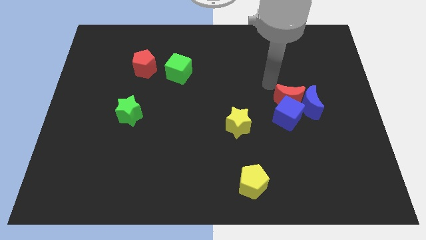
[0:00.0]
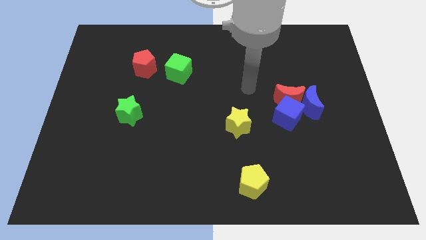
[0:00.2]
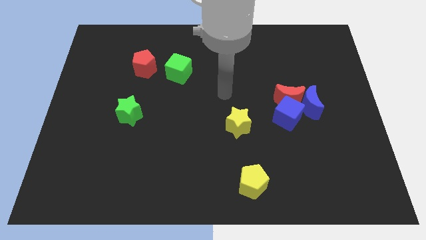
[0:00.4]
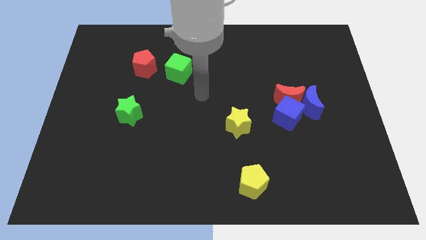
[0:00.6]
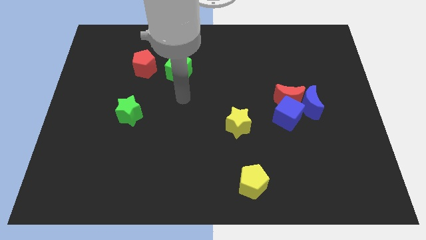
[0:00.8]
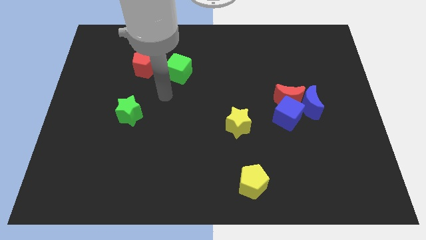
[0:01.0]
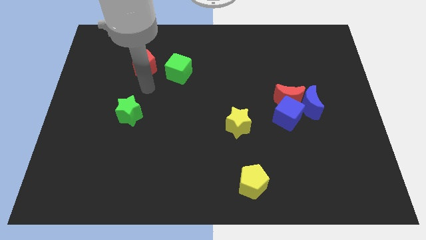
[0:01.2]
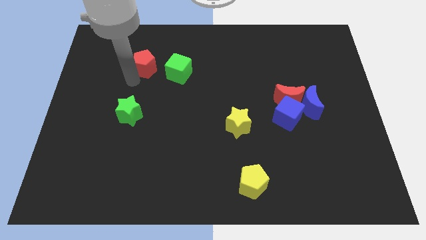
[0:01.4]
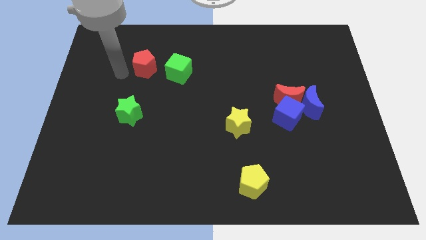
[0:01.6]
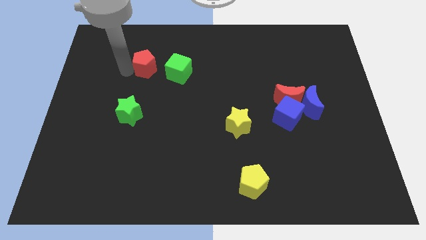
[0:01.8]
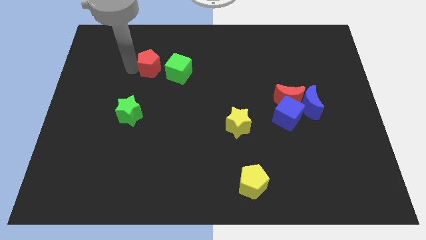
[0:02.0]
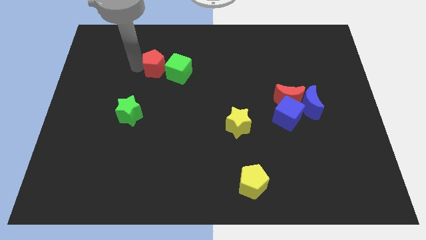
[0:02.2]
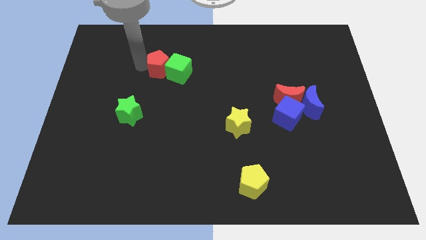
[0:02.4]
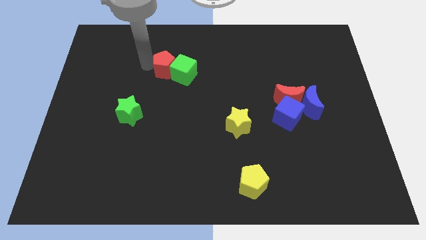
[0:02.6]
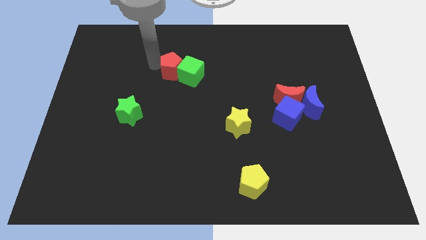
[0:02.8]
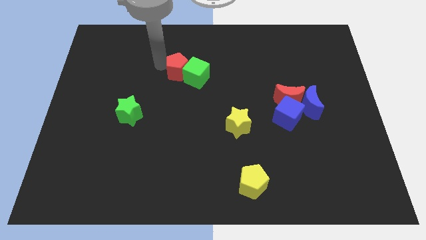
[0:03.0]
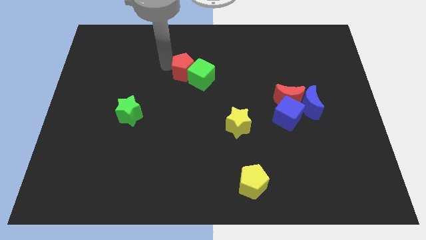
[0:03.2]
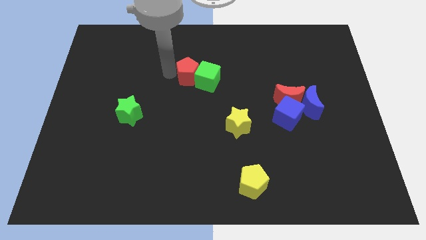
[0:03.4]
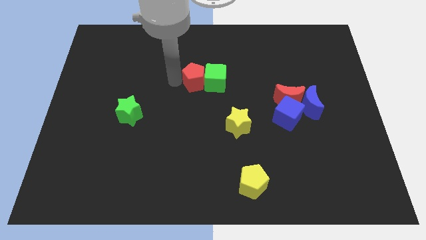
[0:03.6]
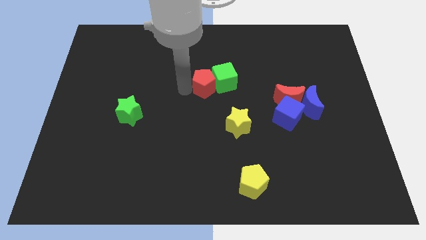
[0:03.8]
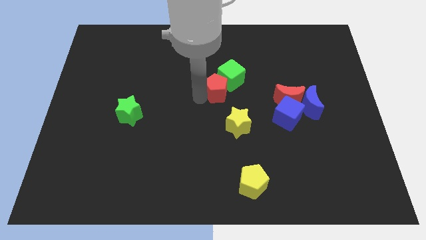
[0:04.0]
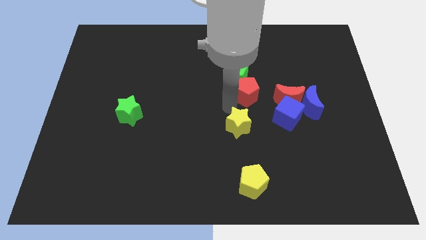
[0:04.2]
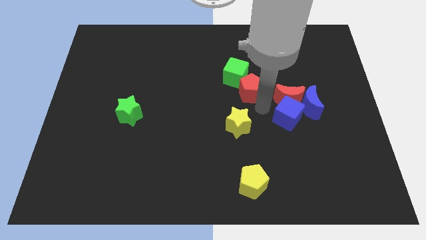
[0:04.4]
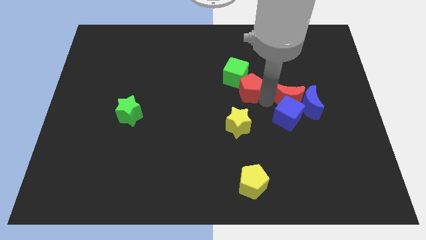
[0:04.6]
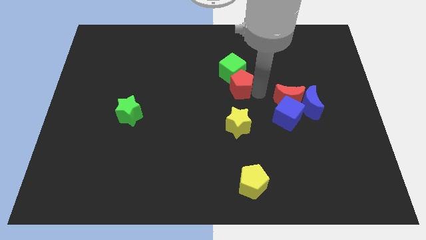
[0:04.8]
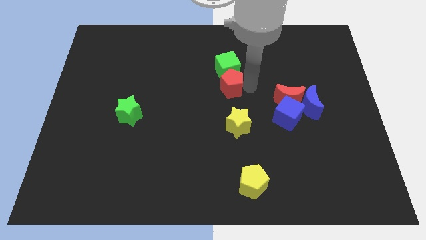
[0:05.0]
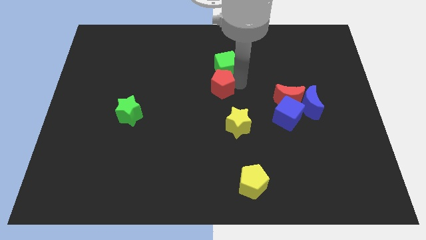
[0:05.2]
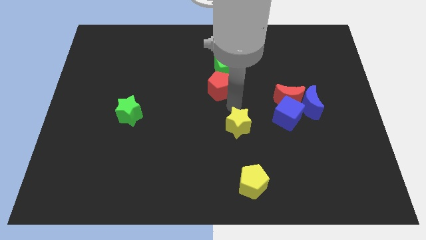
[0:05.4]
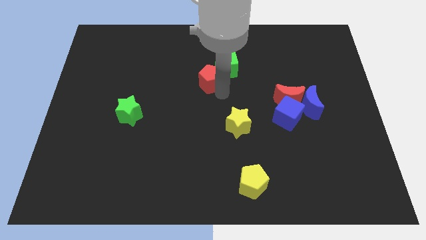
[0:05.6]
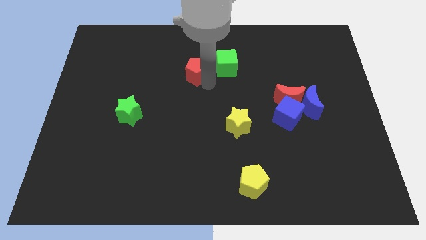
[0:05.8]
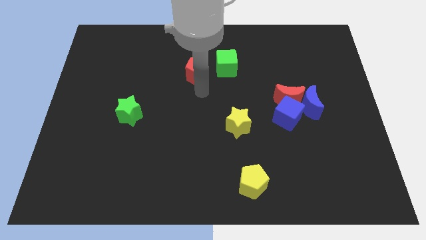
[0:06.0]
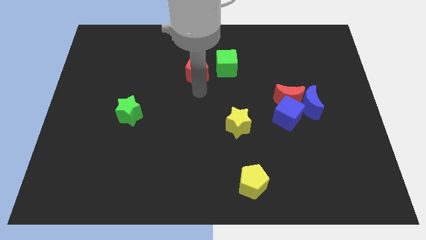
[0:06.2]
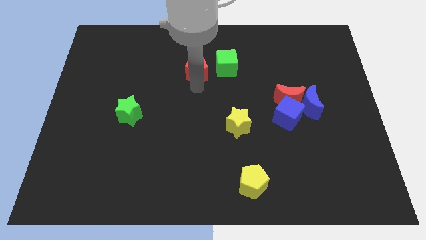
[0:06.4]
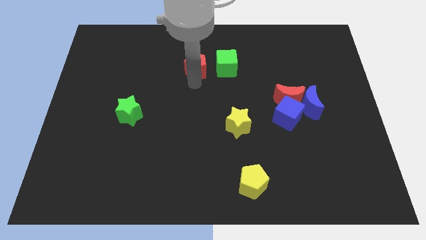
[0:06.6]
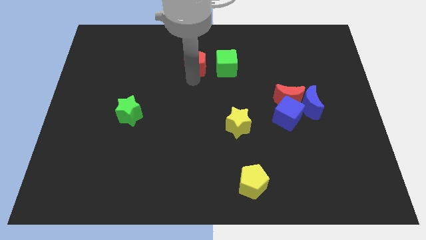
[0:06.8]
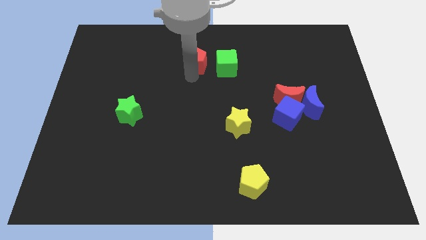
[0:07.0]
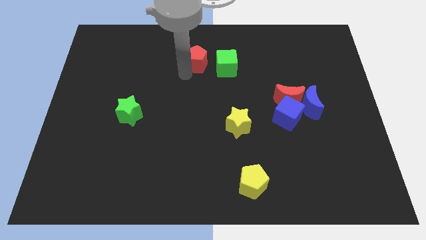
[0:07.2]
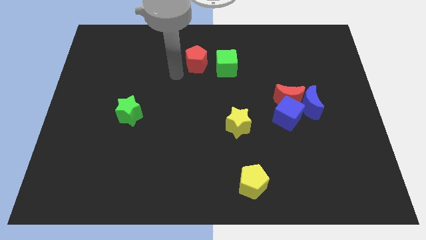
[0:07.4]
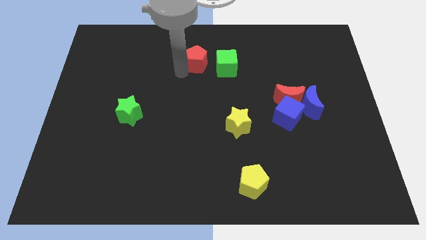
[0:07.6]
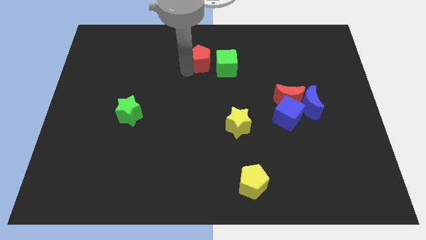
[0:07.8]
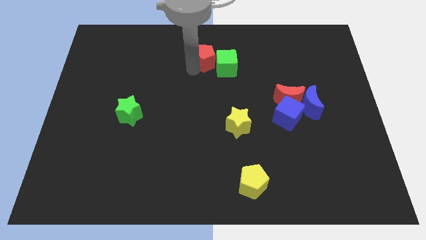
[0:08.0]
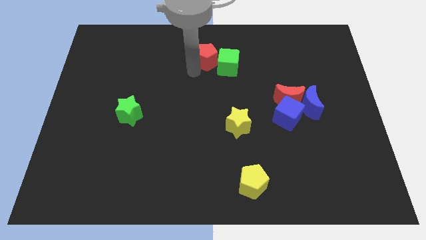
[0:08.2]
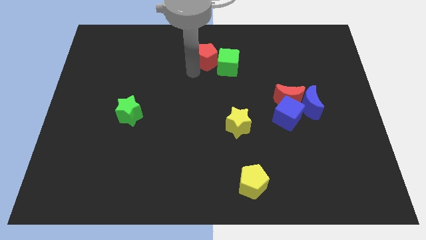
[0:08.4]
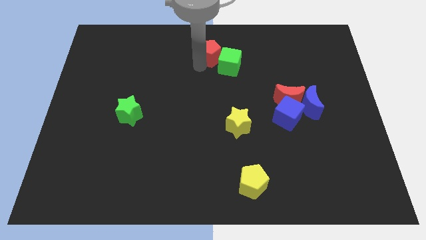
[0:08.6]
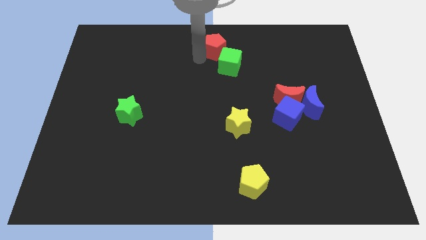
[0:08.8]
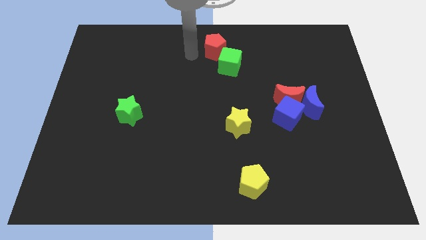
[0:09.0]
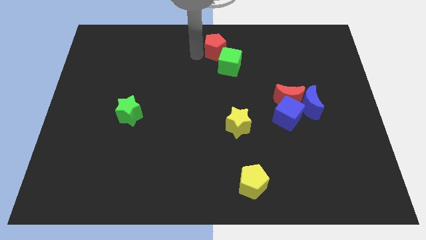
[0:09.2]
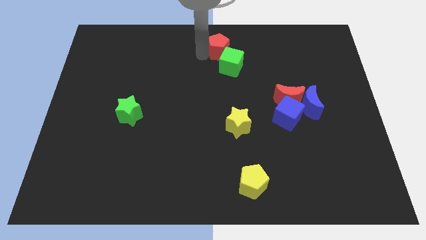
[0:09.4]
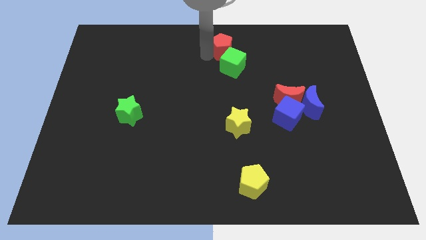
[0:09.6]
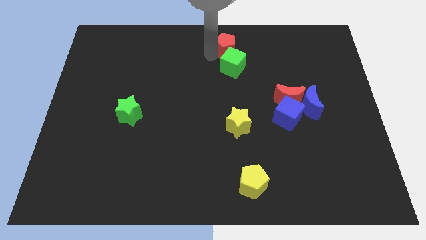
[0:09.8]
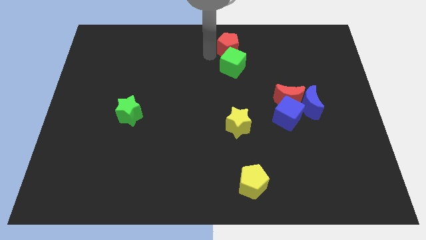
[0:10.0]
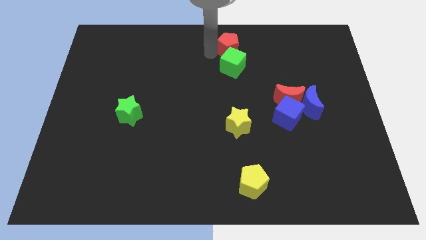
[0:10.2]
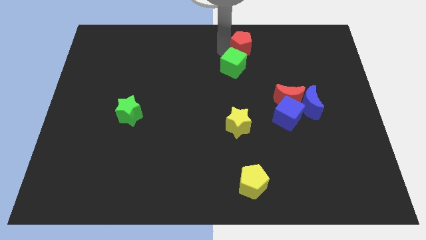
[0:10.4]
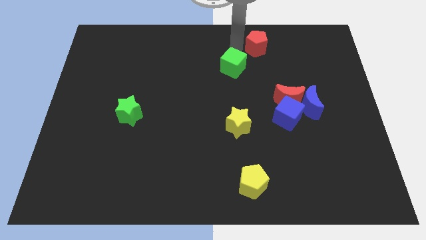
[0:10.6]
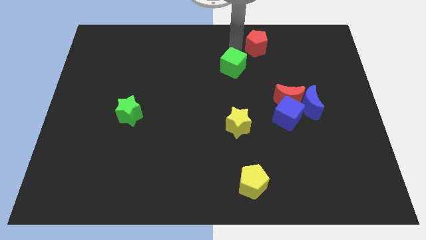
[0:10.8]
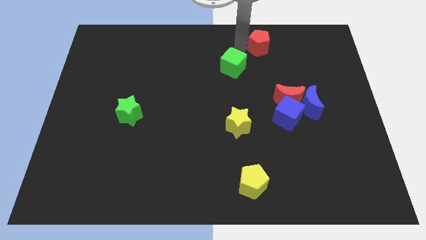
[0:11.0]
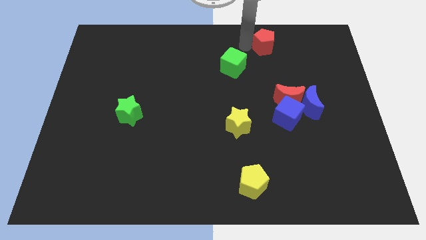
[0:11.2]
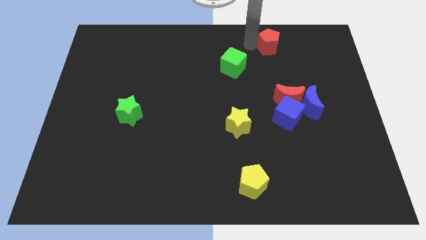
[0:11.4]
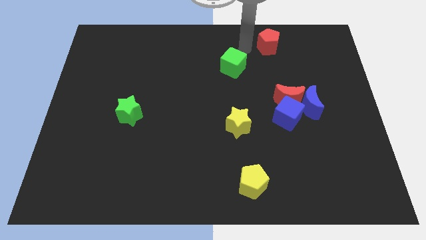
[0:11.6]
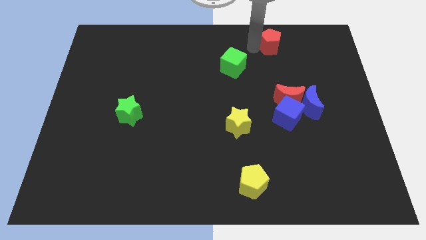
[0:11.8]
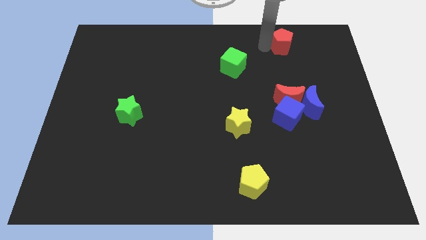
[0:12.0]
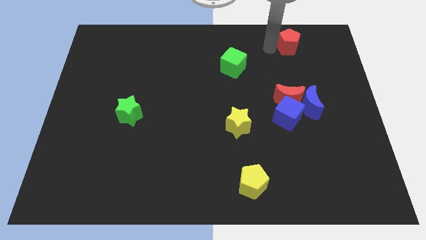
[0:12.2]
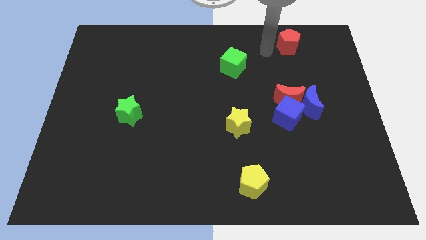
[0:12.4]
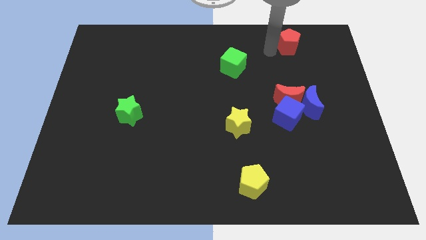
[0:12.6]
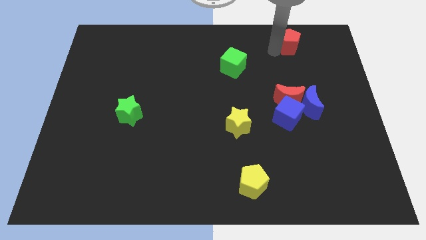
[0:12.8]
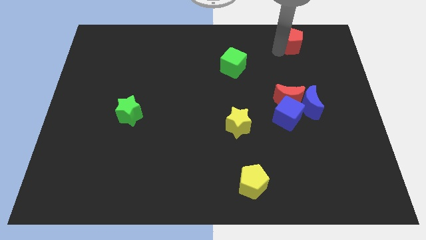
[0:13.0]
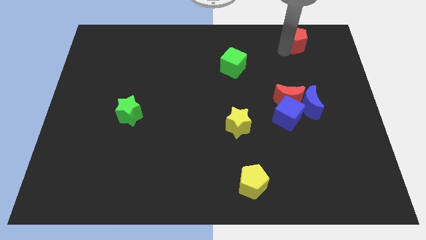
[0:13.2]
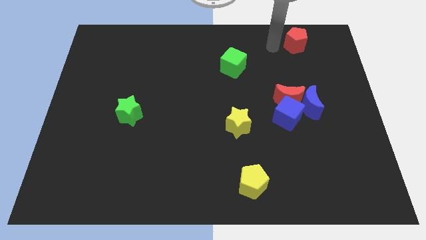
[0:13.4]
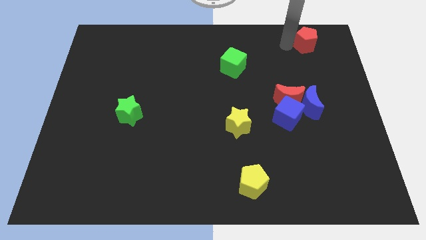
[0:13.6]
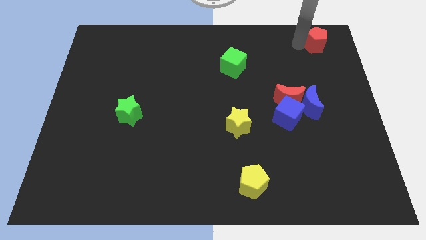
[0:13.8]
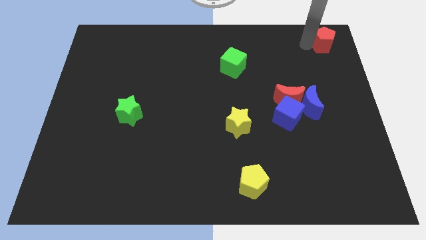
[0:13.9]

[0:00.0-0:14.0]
move the red pentagon to the top right of the board

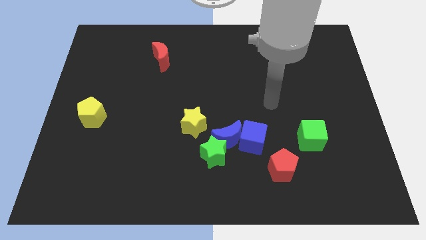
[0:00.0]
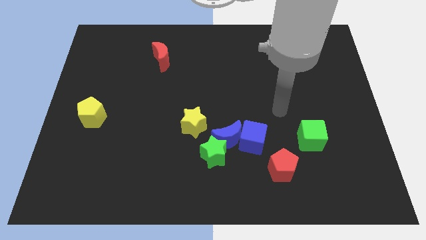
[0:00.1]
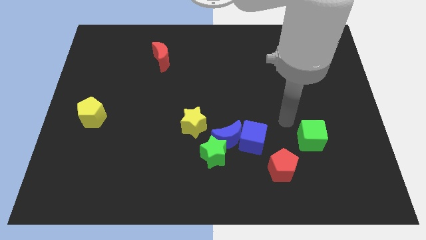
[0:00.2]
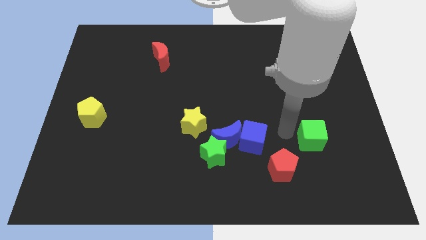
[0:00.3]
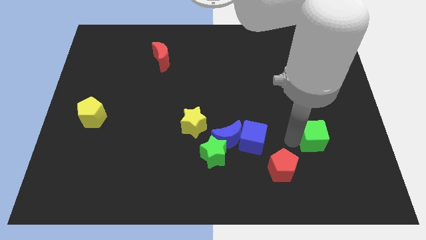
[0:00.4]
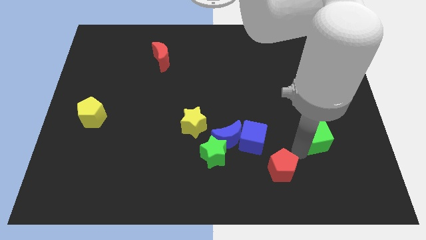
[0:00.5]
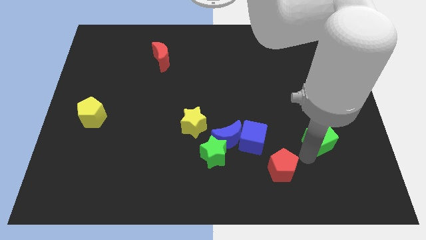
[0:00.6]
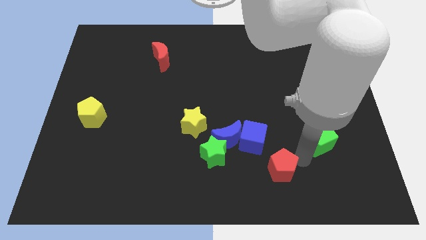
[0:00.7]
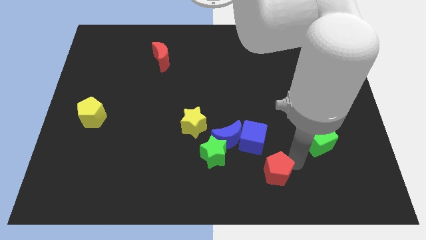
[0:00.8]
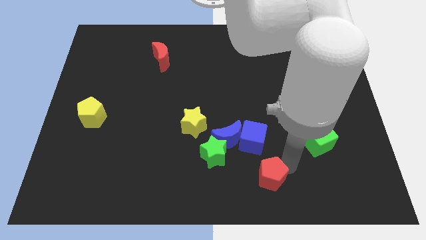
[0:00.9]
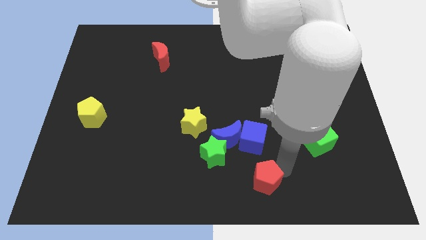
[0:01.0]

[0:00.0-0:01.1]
move the red pentagon to the bottom side
